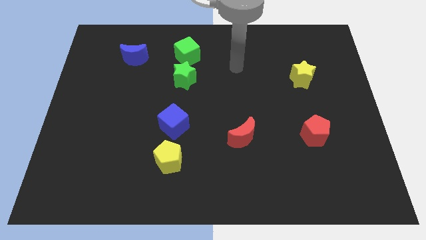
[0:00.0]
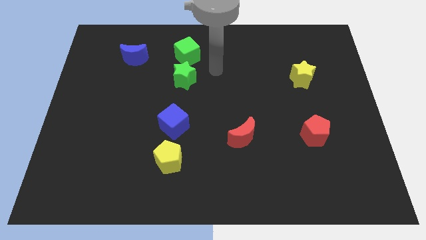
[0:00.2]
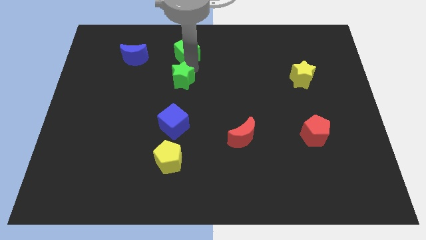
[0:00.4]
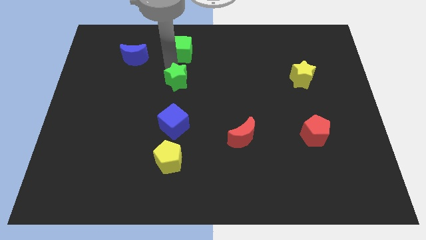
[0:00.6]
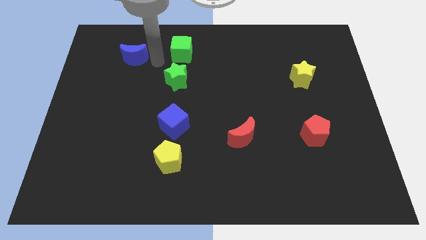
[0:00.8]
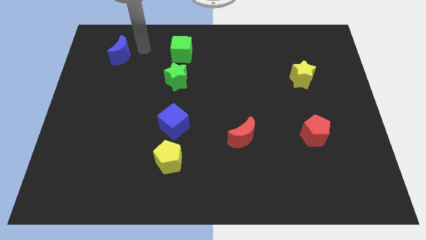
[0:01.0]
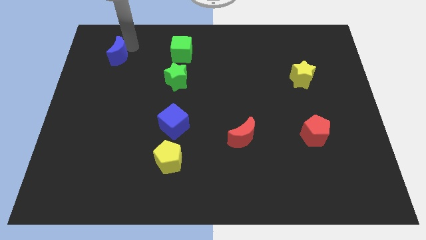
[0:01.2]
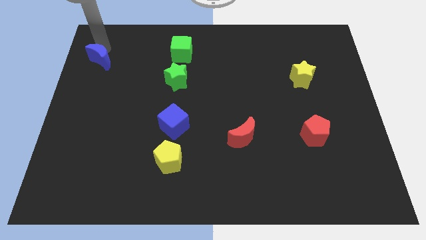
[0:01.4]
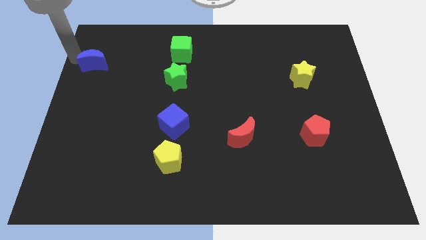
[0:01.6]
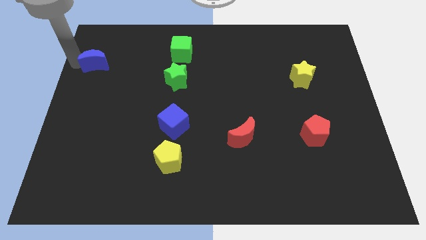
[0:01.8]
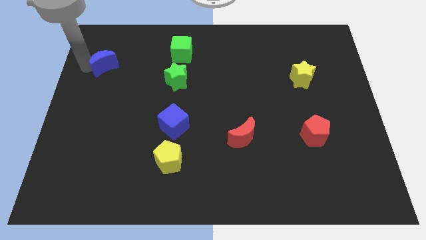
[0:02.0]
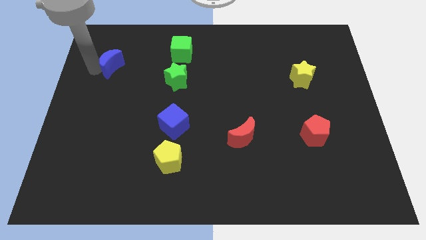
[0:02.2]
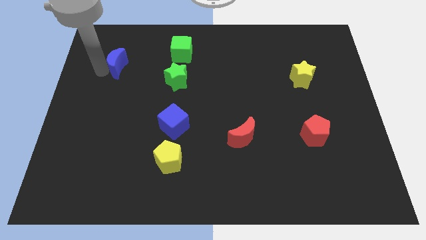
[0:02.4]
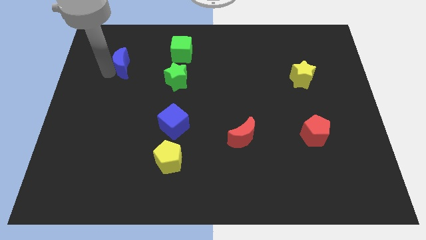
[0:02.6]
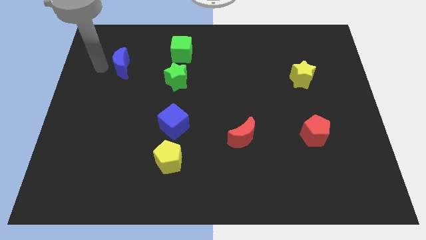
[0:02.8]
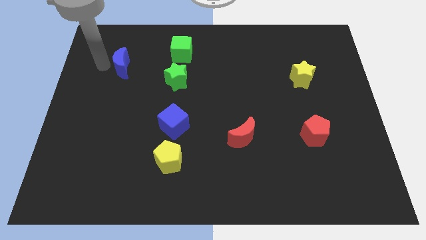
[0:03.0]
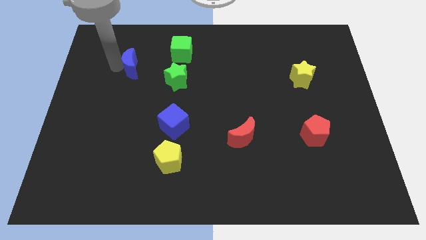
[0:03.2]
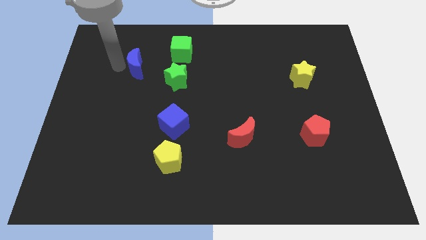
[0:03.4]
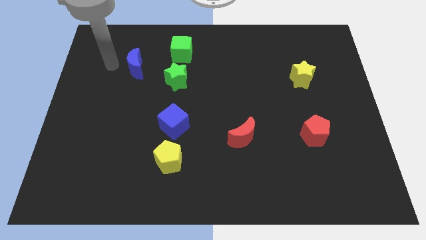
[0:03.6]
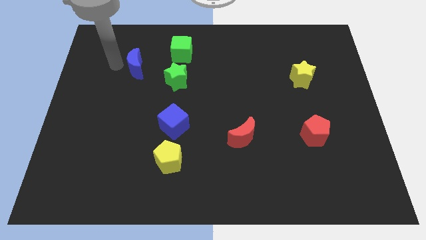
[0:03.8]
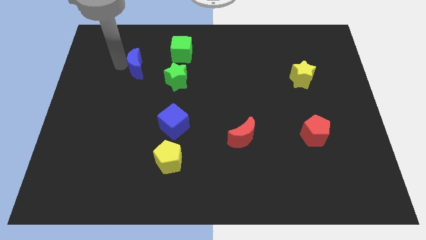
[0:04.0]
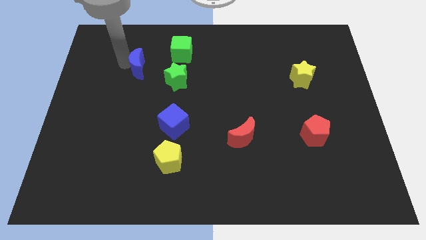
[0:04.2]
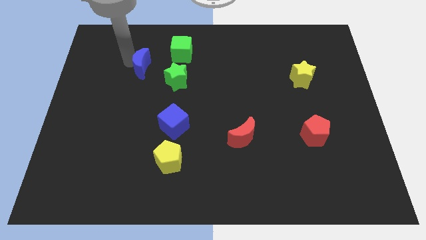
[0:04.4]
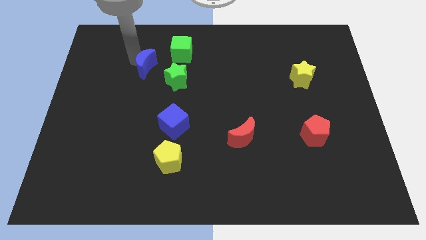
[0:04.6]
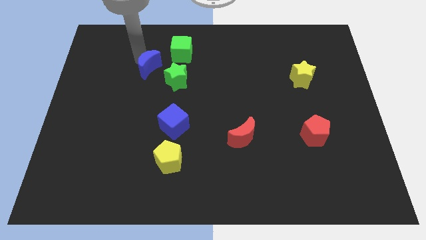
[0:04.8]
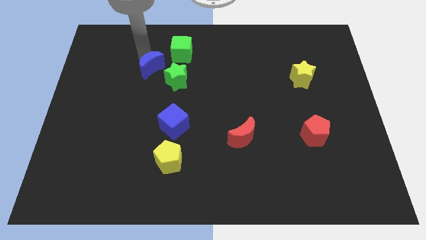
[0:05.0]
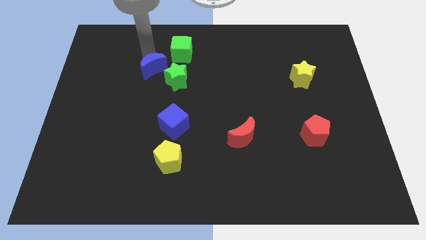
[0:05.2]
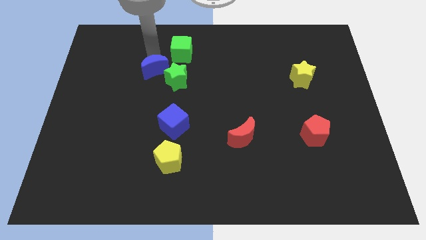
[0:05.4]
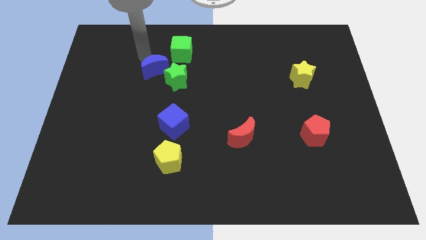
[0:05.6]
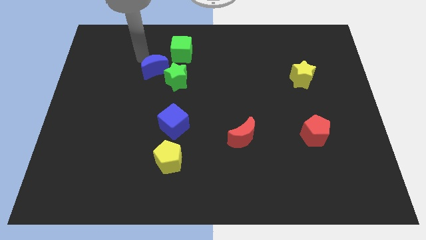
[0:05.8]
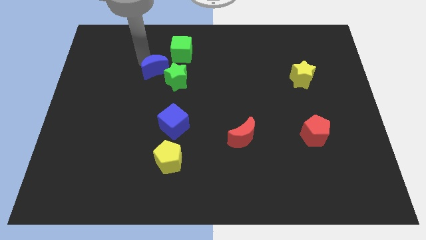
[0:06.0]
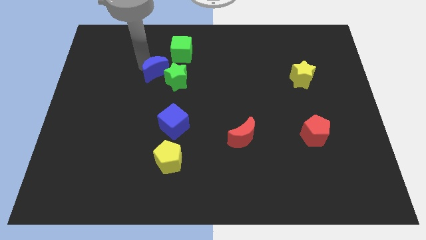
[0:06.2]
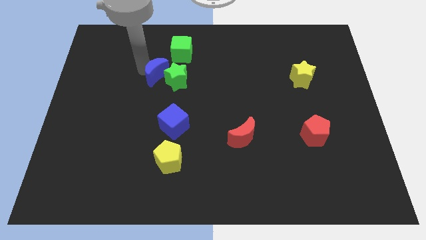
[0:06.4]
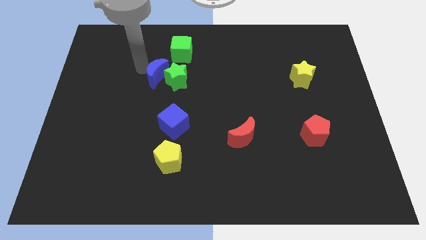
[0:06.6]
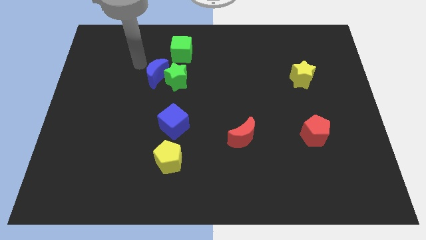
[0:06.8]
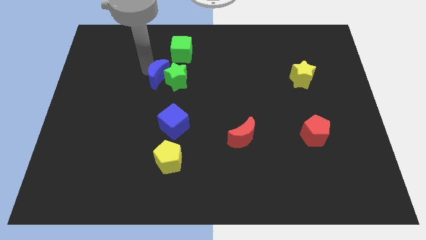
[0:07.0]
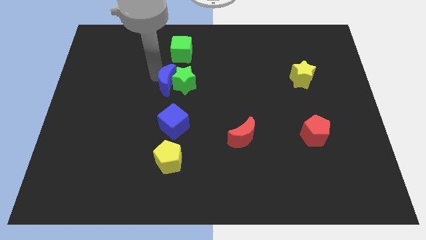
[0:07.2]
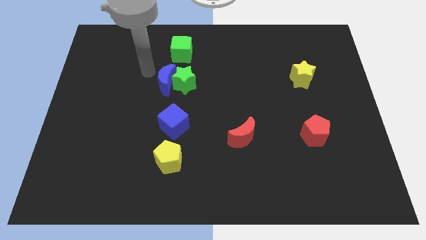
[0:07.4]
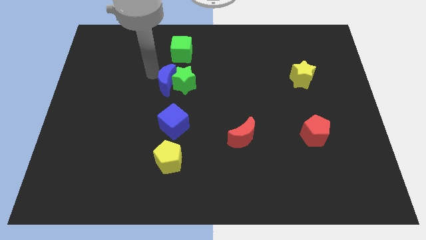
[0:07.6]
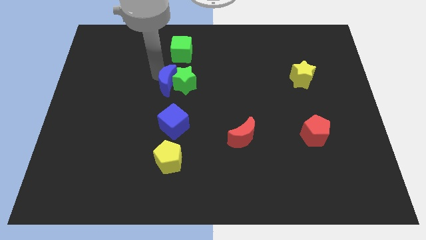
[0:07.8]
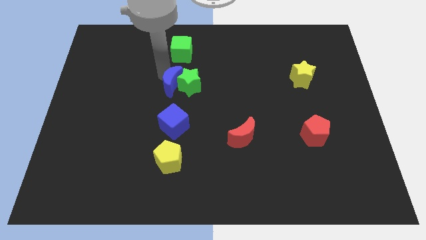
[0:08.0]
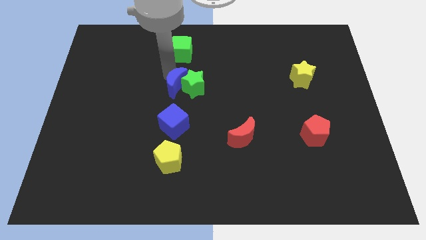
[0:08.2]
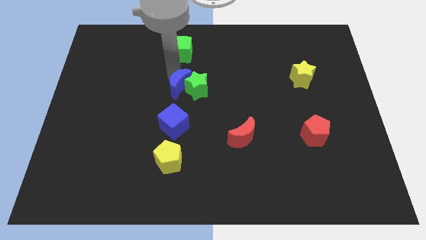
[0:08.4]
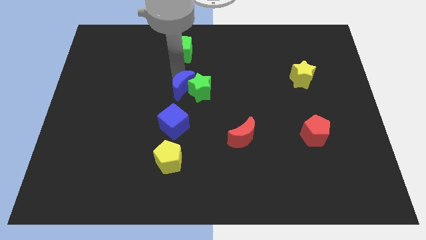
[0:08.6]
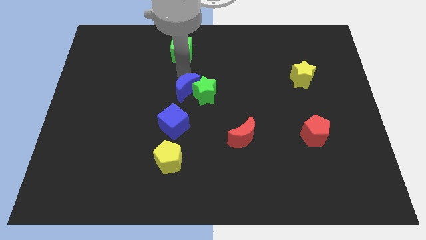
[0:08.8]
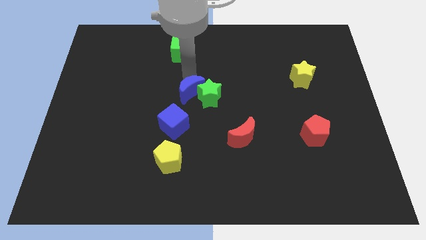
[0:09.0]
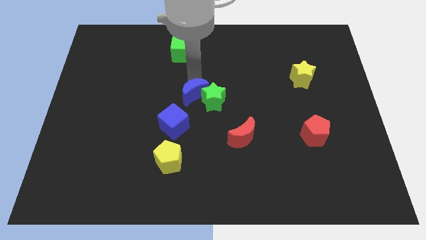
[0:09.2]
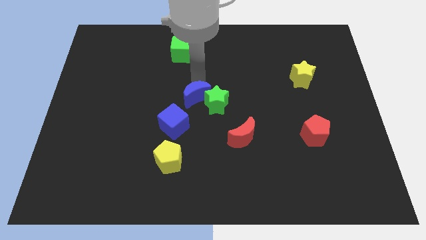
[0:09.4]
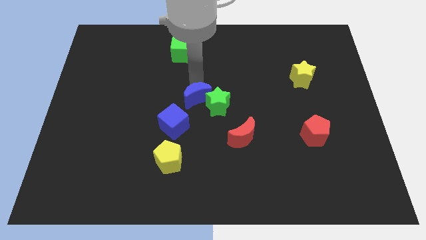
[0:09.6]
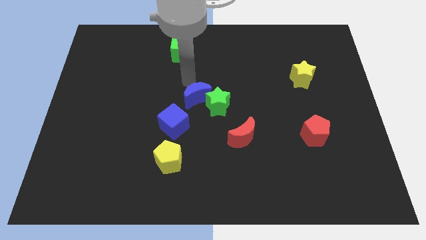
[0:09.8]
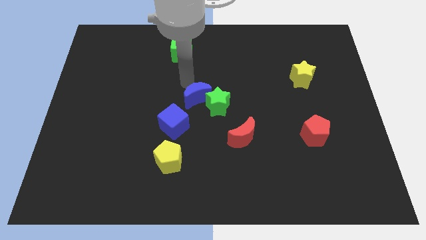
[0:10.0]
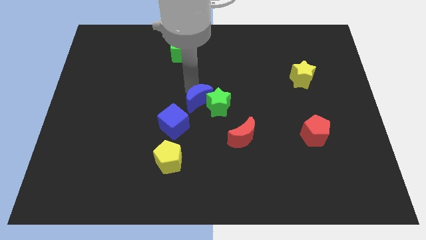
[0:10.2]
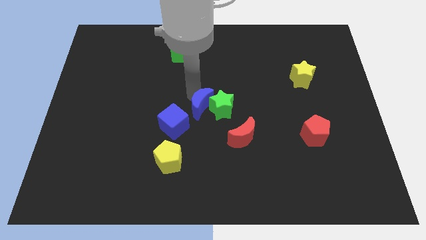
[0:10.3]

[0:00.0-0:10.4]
put the blue moon to the top left side of the red moon

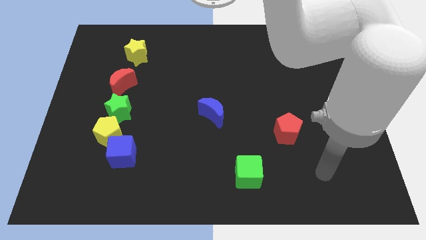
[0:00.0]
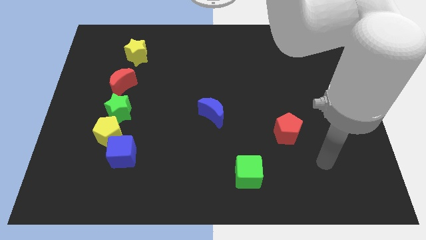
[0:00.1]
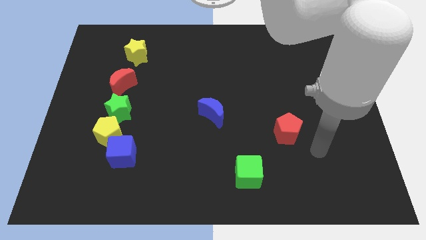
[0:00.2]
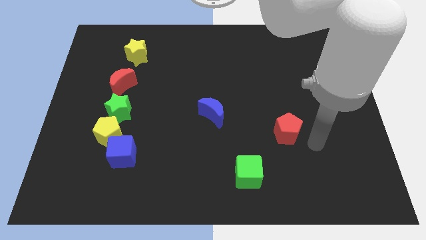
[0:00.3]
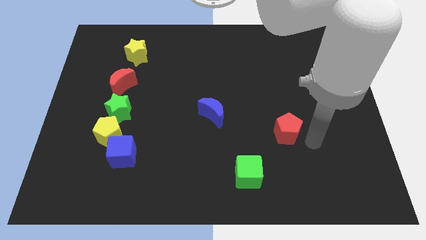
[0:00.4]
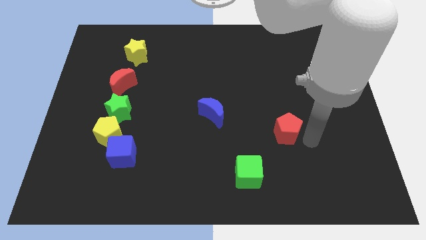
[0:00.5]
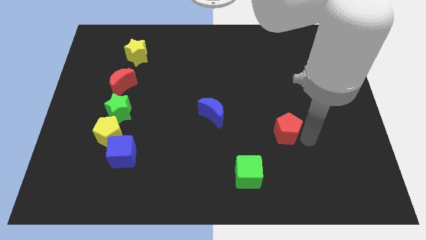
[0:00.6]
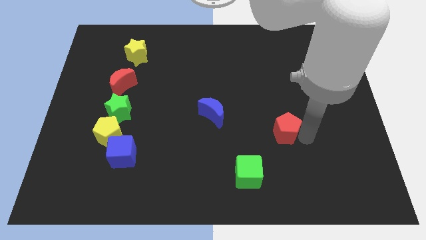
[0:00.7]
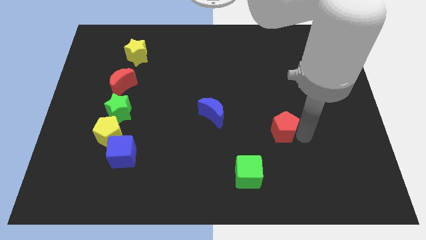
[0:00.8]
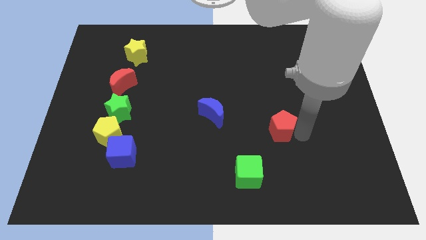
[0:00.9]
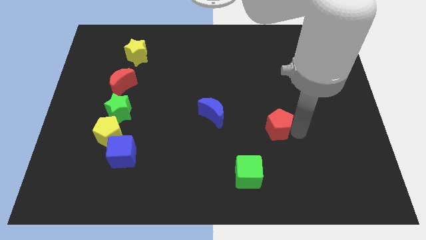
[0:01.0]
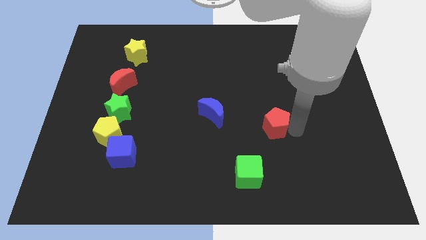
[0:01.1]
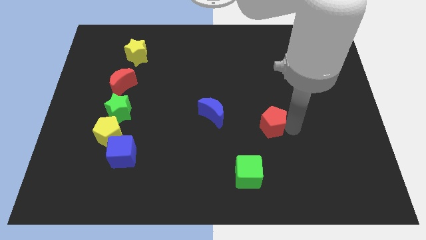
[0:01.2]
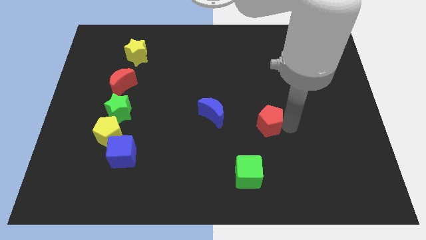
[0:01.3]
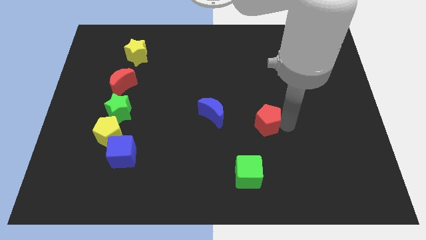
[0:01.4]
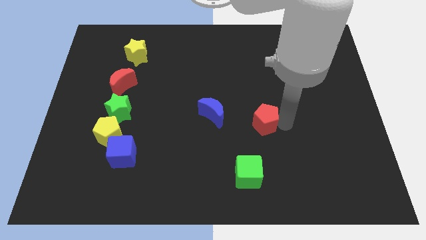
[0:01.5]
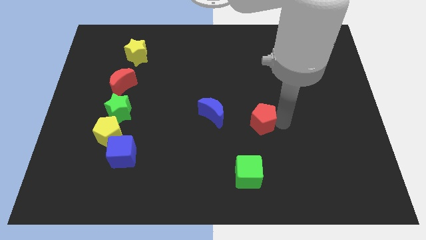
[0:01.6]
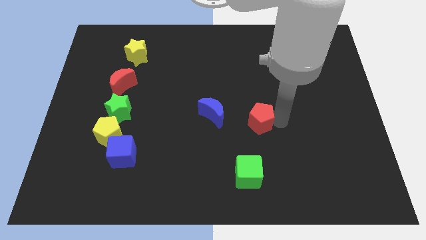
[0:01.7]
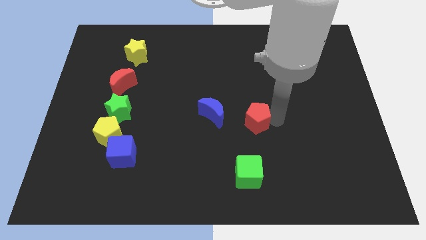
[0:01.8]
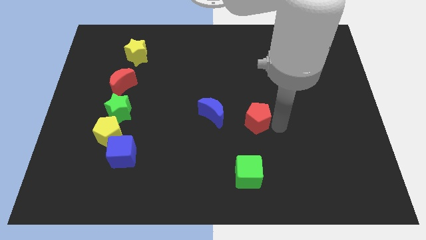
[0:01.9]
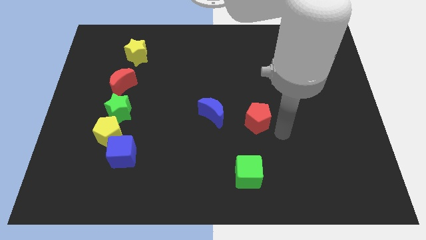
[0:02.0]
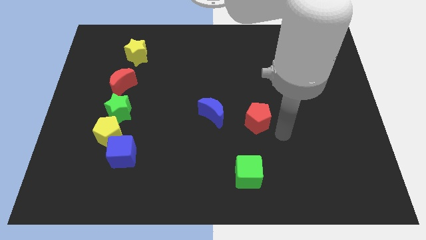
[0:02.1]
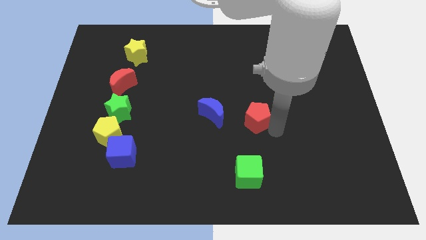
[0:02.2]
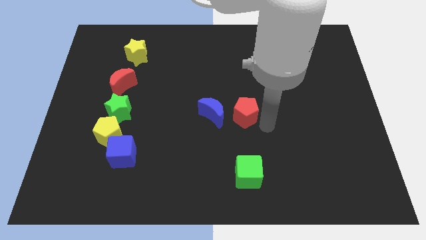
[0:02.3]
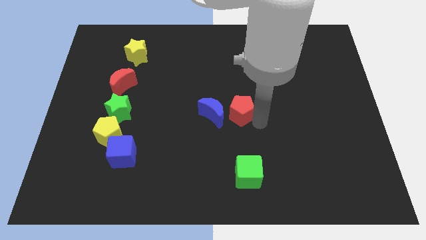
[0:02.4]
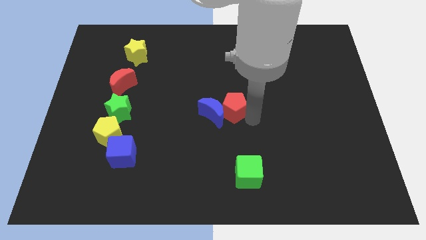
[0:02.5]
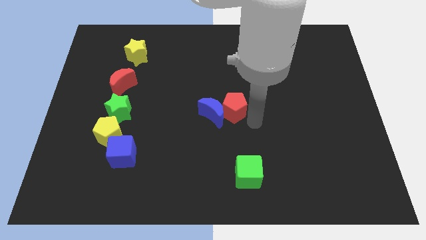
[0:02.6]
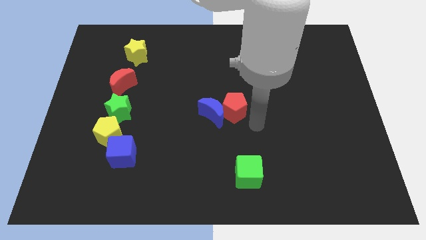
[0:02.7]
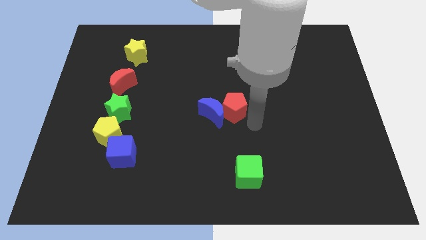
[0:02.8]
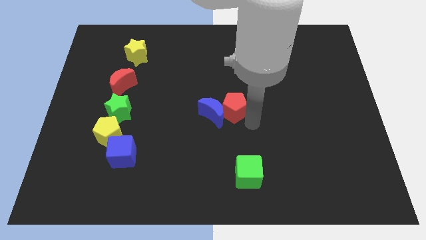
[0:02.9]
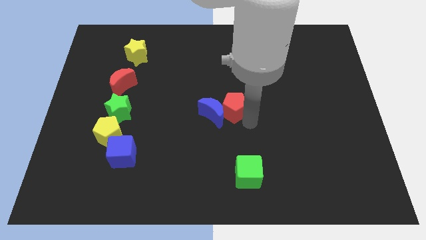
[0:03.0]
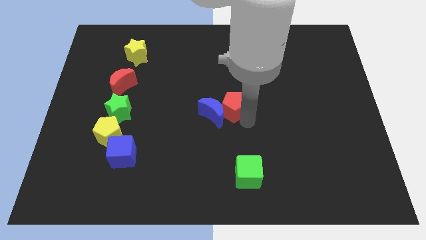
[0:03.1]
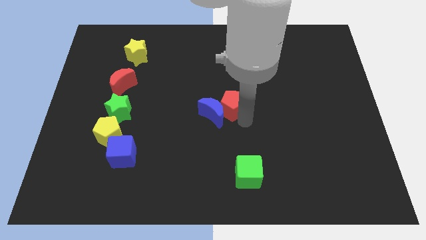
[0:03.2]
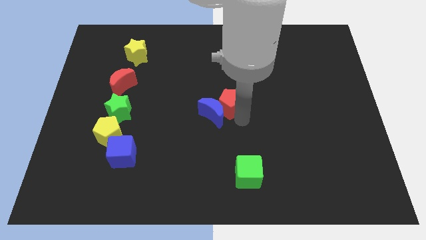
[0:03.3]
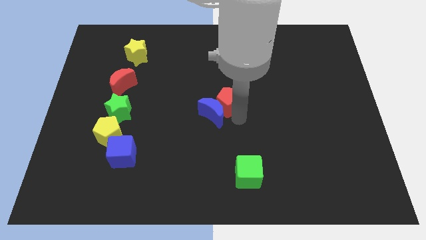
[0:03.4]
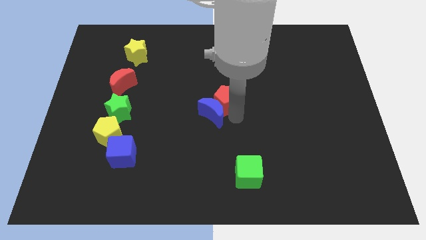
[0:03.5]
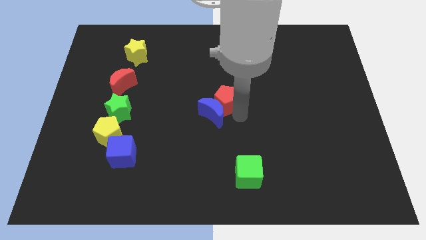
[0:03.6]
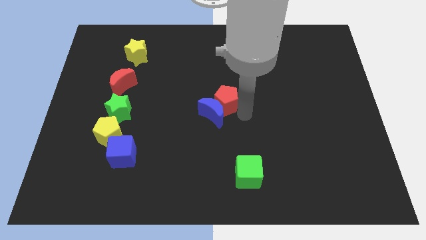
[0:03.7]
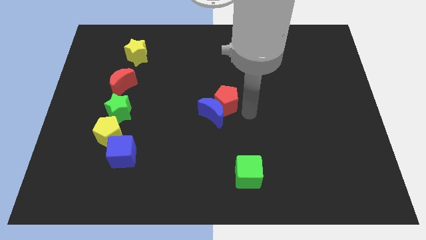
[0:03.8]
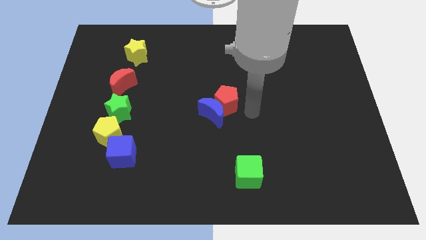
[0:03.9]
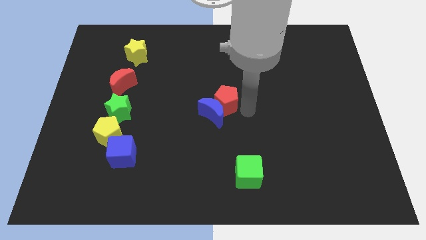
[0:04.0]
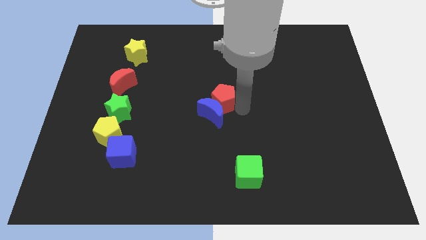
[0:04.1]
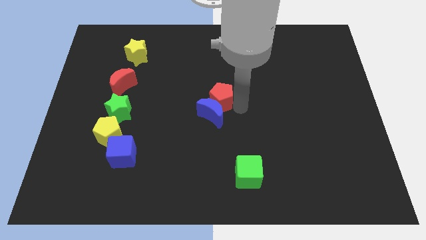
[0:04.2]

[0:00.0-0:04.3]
push the red pentagon to the top left side of the blue moon
